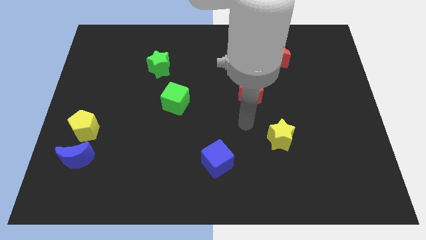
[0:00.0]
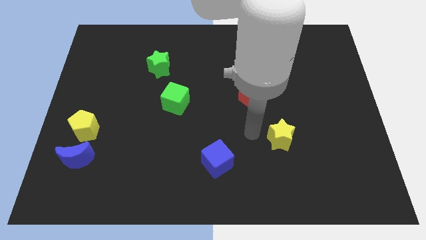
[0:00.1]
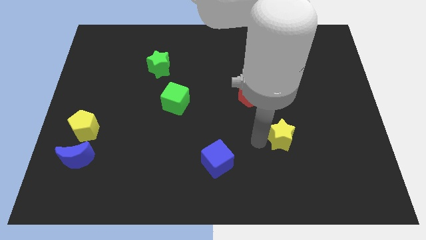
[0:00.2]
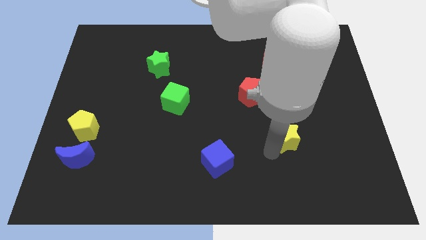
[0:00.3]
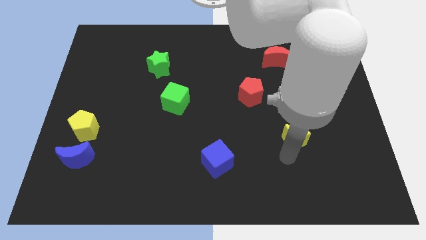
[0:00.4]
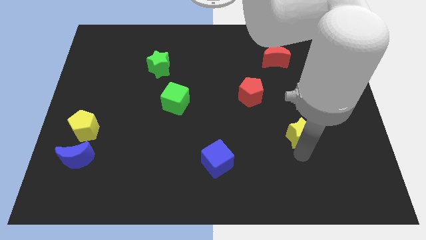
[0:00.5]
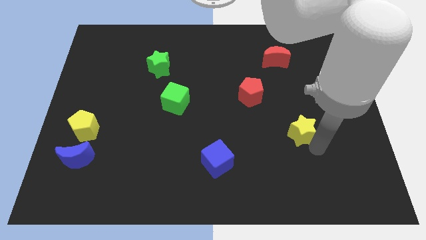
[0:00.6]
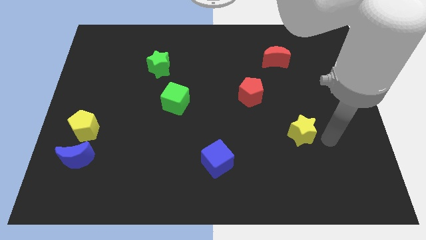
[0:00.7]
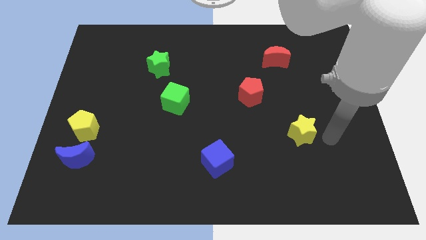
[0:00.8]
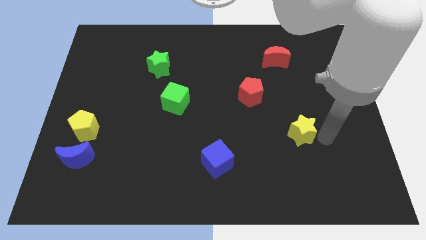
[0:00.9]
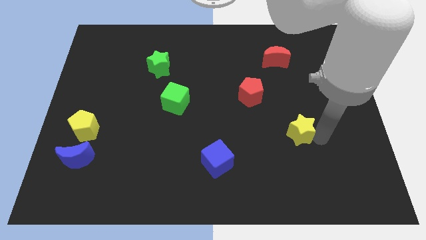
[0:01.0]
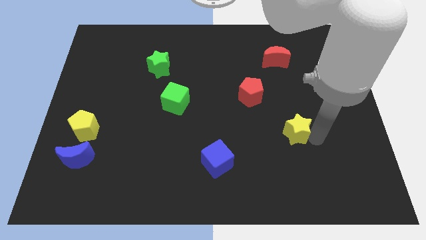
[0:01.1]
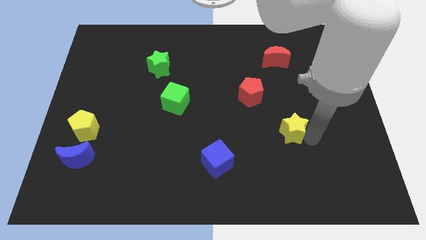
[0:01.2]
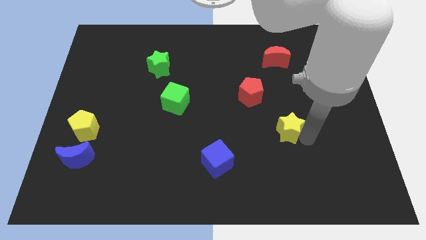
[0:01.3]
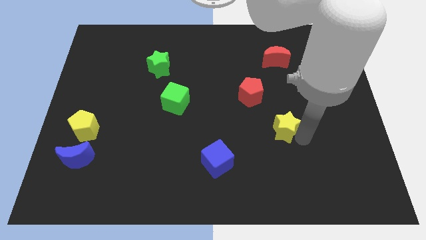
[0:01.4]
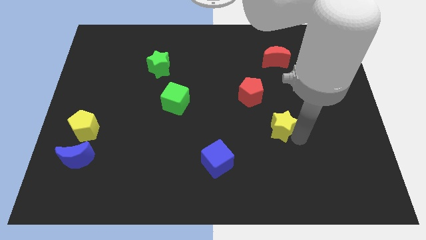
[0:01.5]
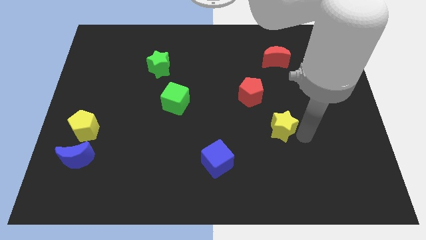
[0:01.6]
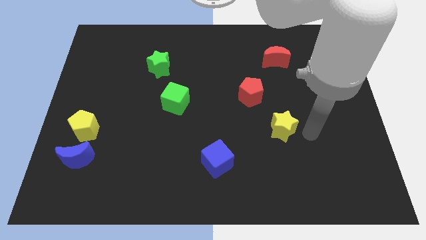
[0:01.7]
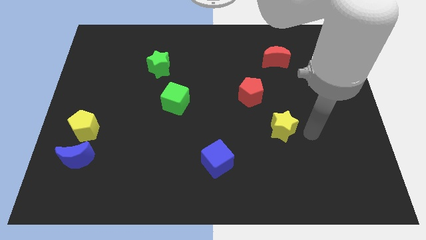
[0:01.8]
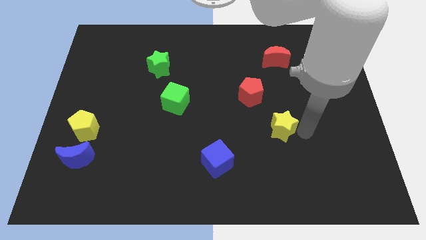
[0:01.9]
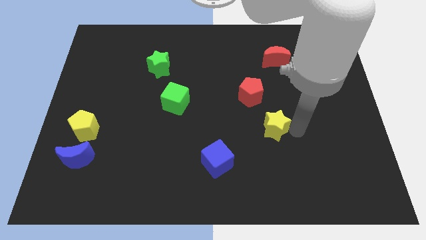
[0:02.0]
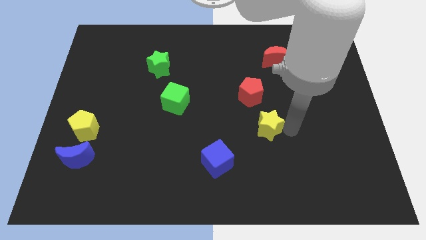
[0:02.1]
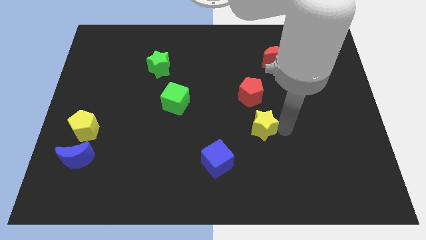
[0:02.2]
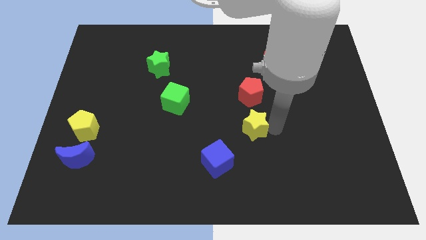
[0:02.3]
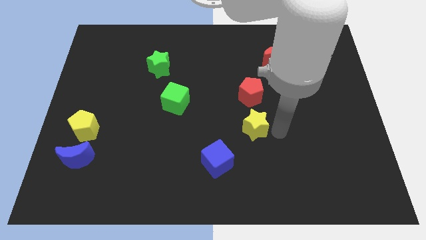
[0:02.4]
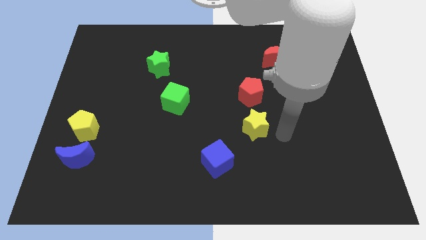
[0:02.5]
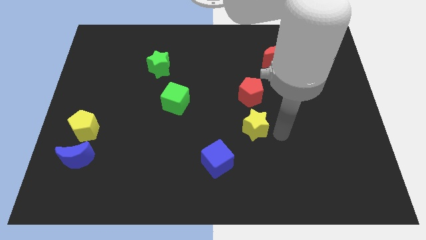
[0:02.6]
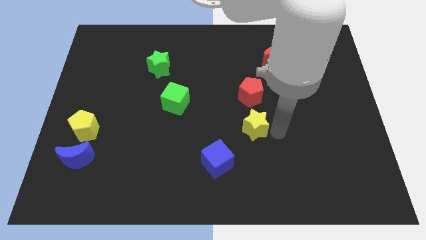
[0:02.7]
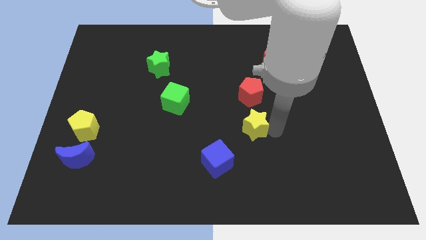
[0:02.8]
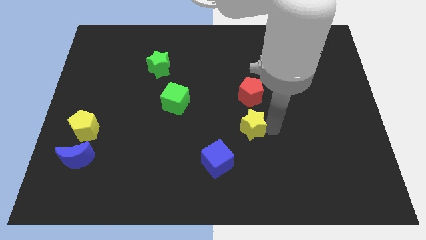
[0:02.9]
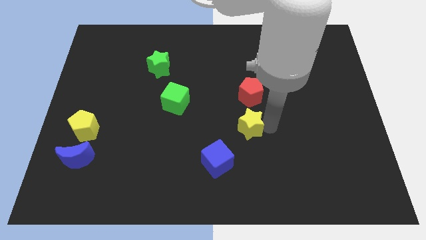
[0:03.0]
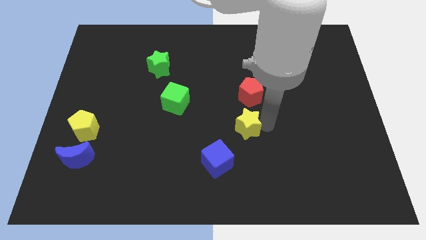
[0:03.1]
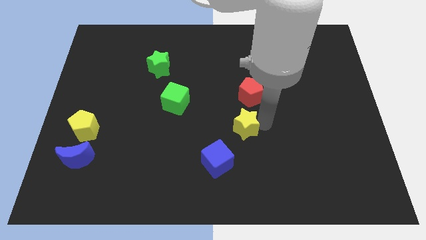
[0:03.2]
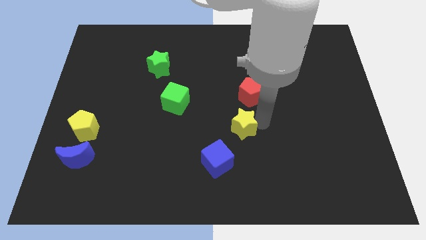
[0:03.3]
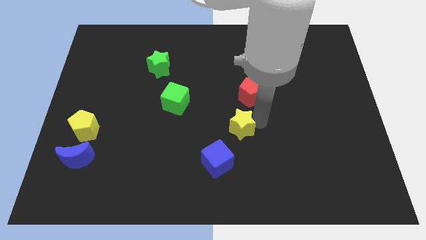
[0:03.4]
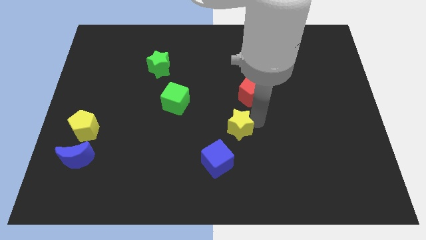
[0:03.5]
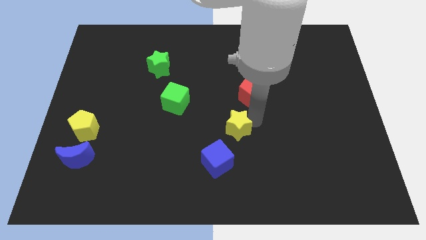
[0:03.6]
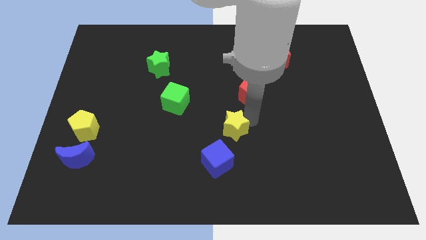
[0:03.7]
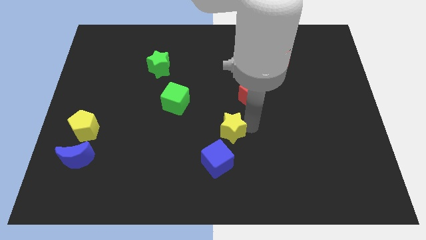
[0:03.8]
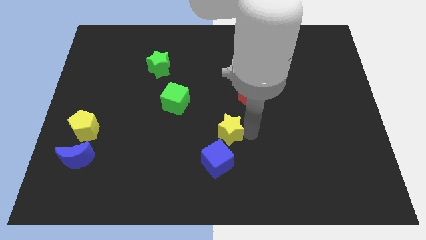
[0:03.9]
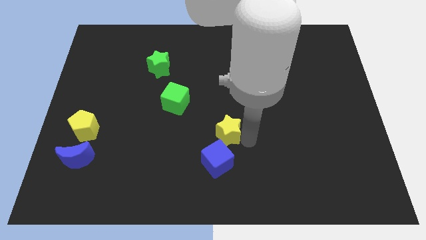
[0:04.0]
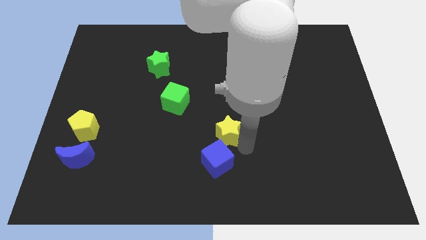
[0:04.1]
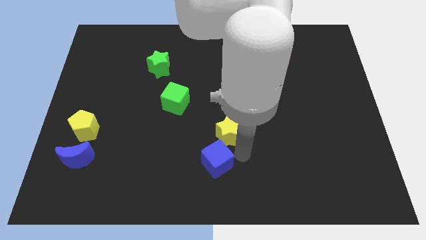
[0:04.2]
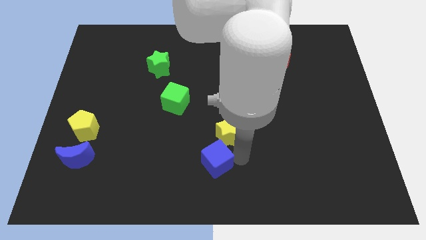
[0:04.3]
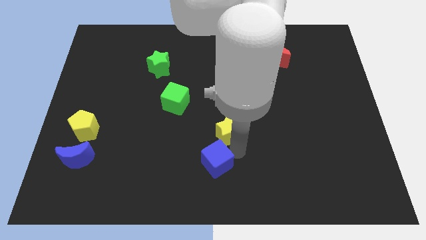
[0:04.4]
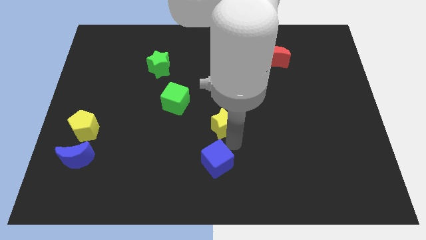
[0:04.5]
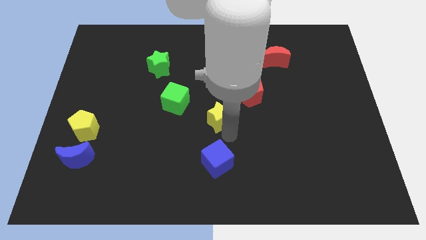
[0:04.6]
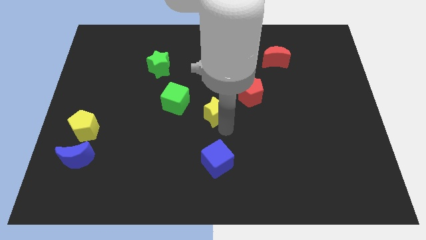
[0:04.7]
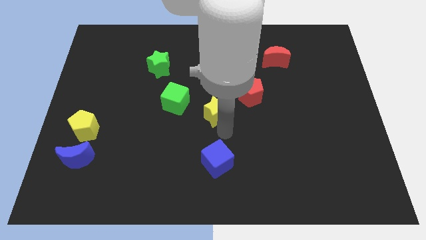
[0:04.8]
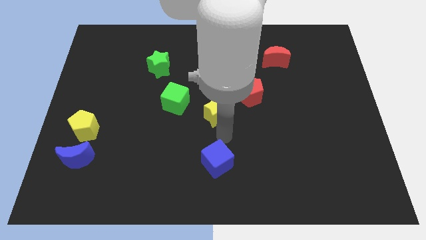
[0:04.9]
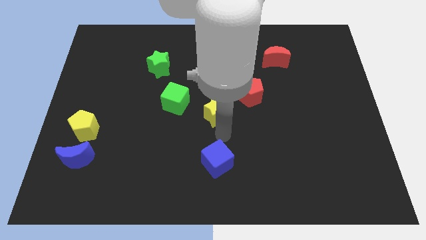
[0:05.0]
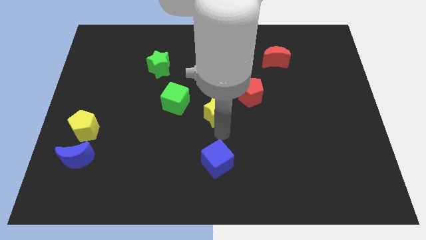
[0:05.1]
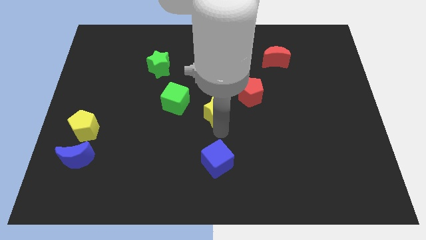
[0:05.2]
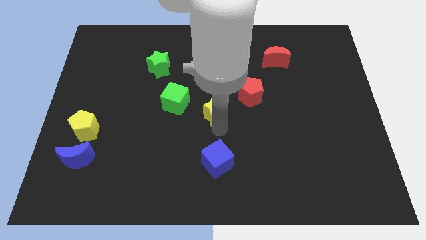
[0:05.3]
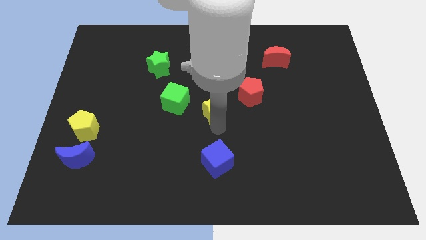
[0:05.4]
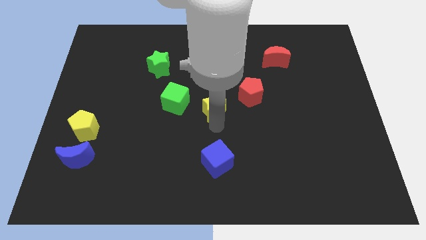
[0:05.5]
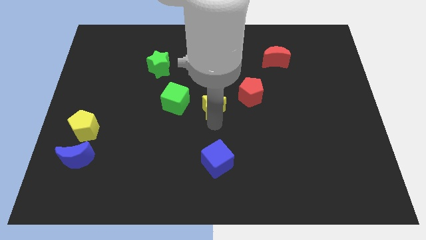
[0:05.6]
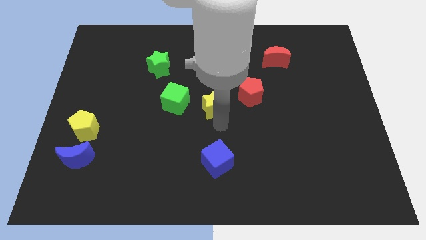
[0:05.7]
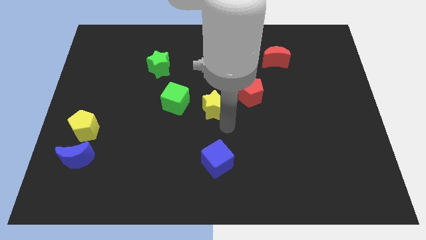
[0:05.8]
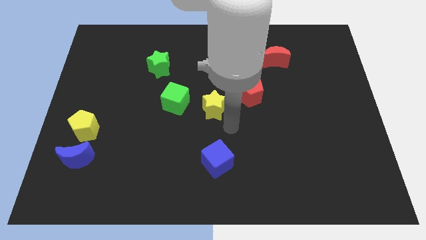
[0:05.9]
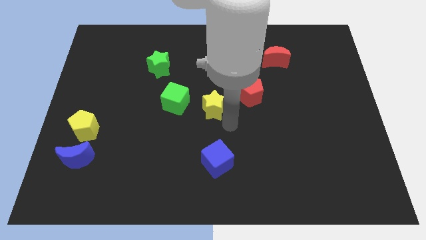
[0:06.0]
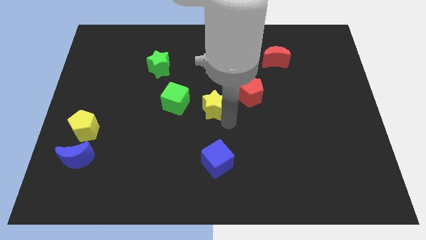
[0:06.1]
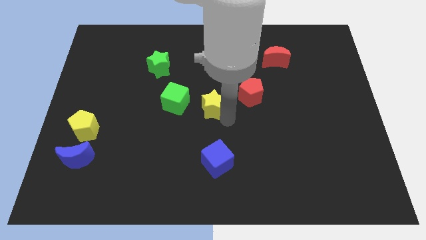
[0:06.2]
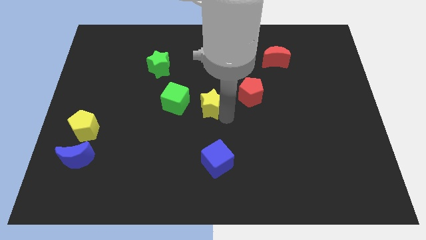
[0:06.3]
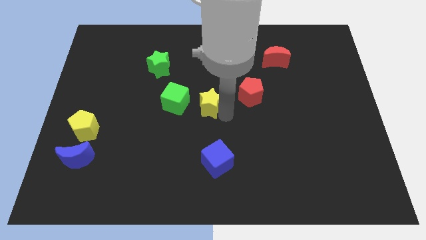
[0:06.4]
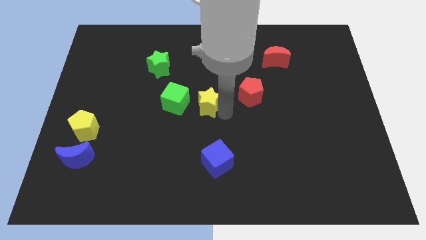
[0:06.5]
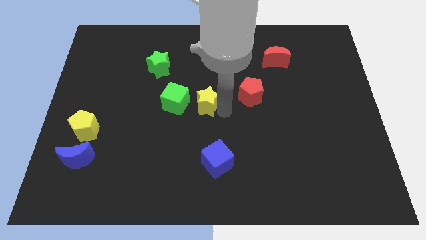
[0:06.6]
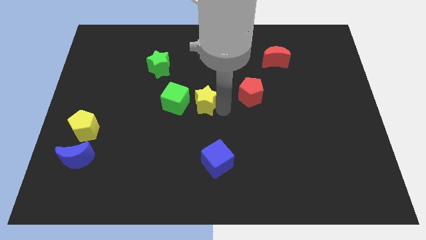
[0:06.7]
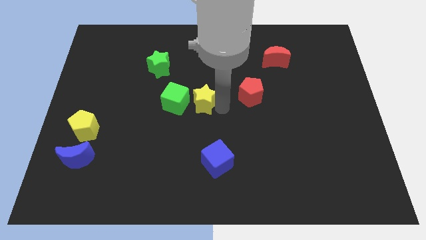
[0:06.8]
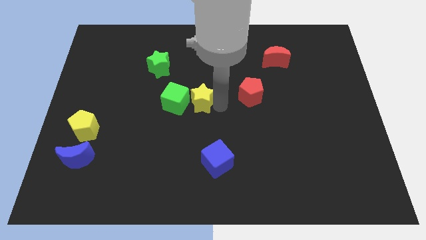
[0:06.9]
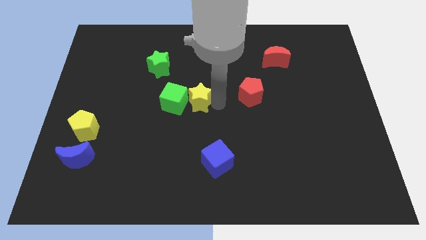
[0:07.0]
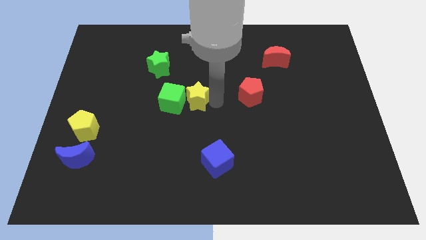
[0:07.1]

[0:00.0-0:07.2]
move the yellow star up and to the left

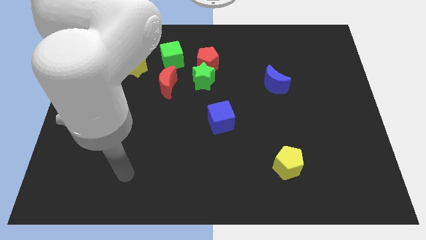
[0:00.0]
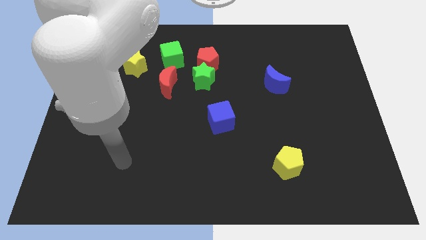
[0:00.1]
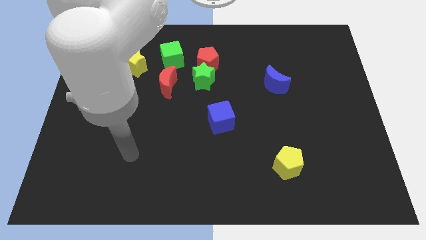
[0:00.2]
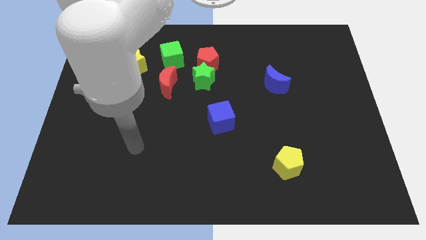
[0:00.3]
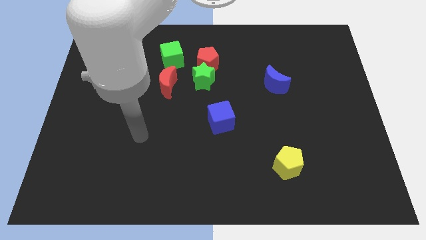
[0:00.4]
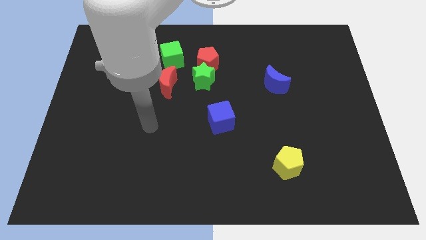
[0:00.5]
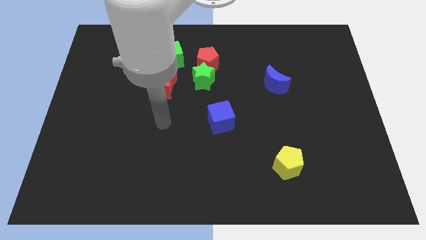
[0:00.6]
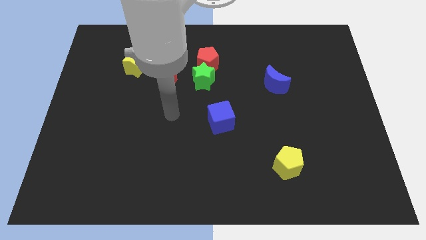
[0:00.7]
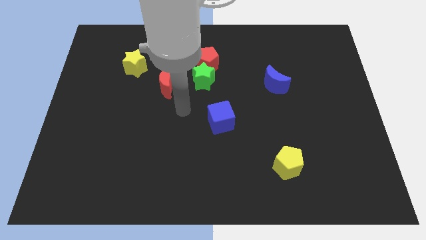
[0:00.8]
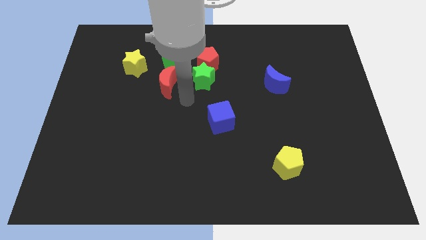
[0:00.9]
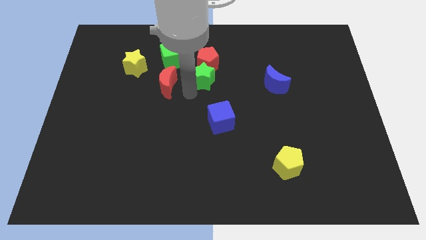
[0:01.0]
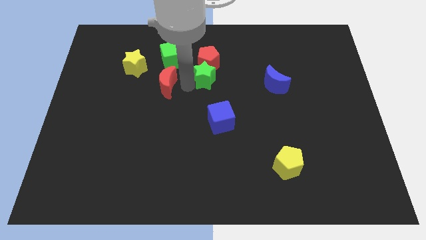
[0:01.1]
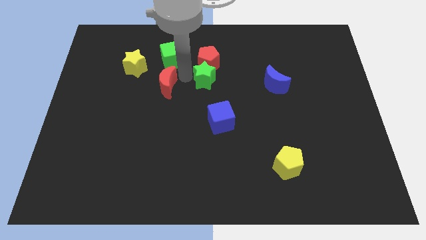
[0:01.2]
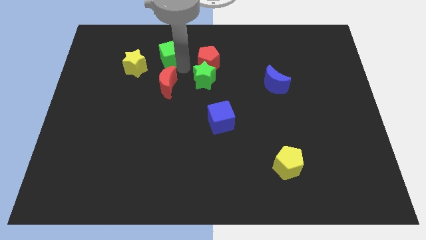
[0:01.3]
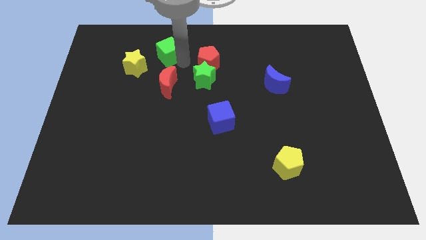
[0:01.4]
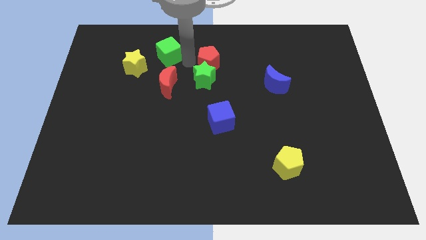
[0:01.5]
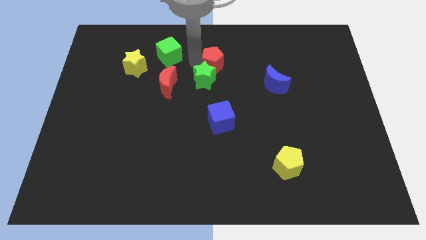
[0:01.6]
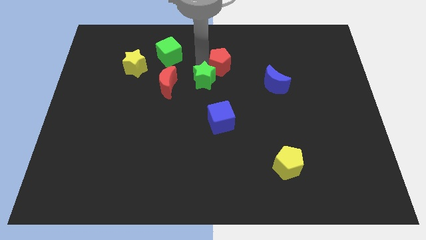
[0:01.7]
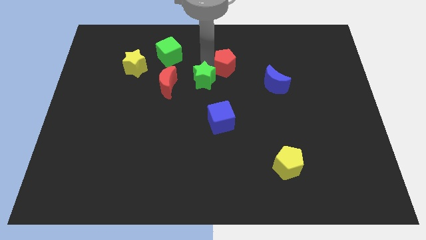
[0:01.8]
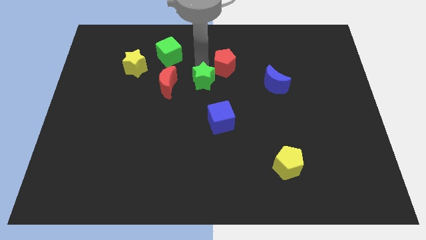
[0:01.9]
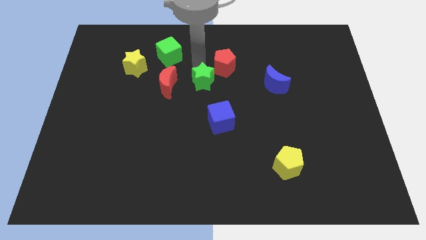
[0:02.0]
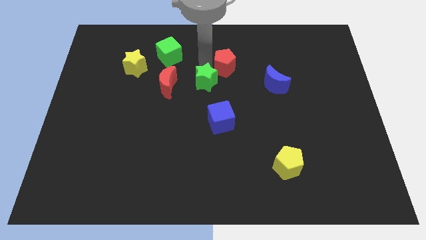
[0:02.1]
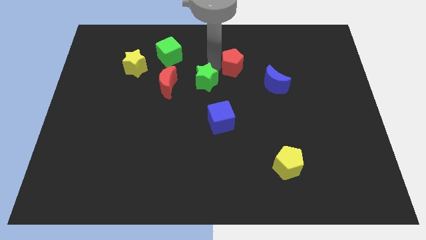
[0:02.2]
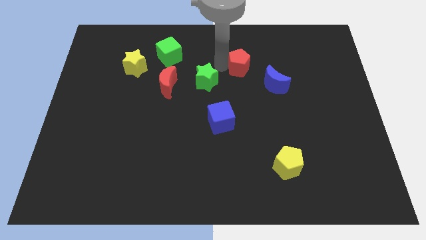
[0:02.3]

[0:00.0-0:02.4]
slide the red pentagon to the right a little
